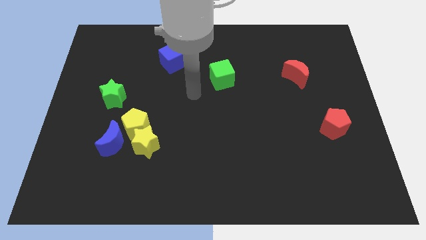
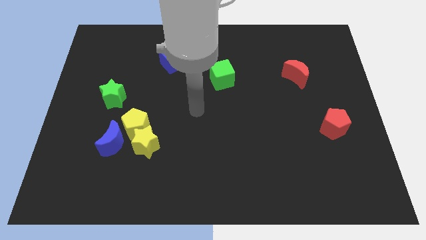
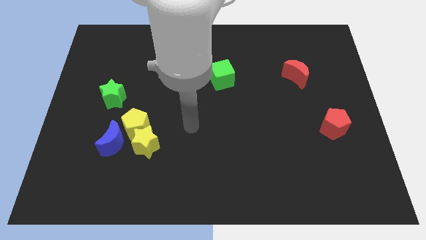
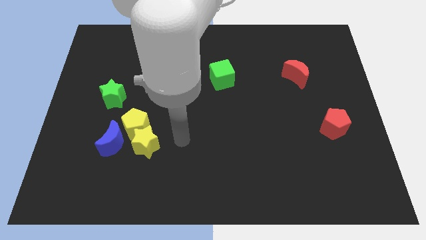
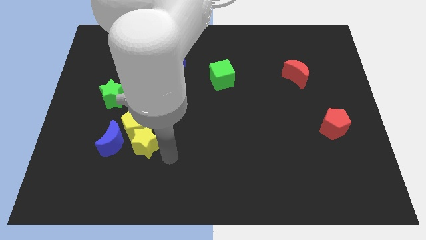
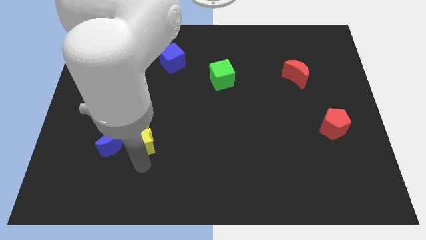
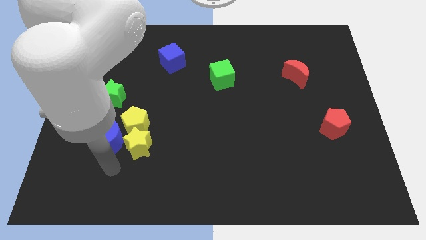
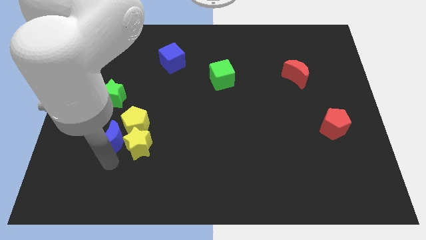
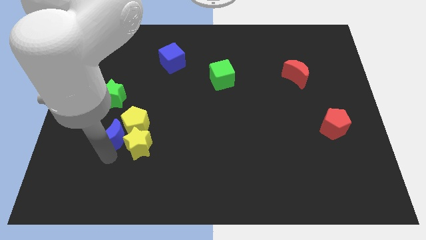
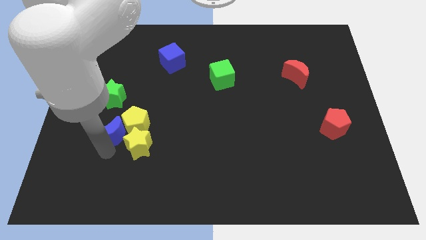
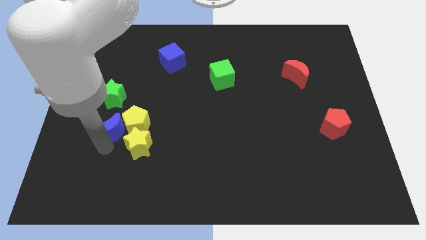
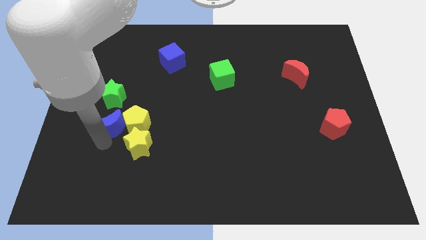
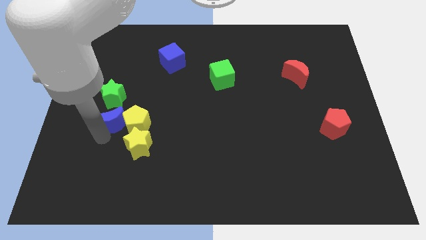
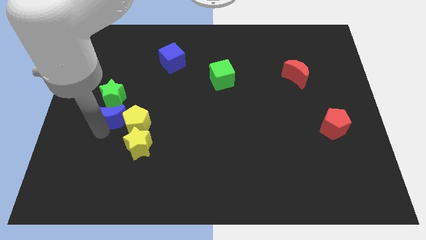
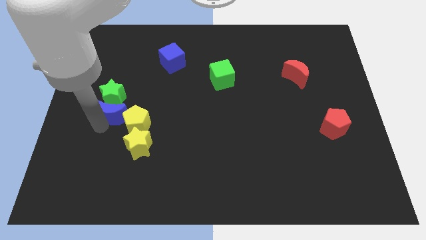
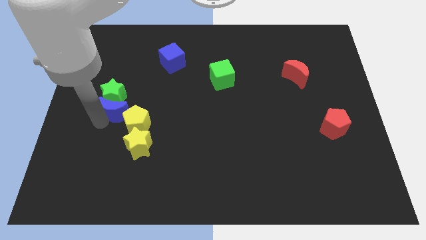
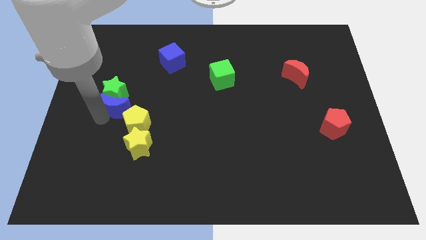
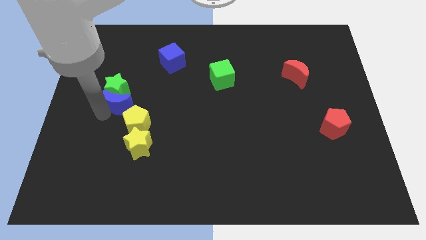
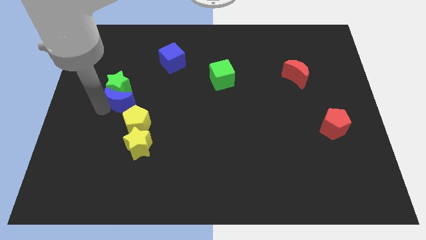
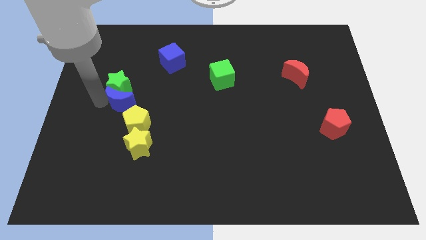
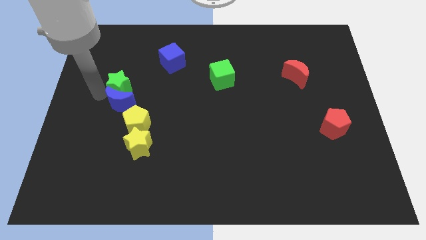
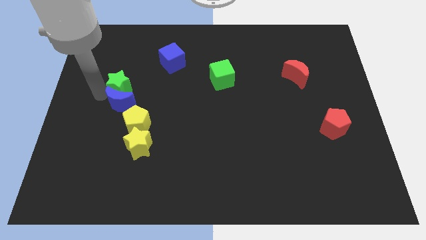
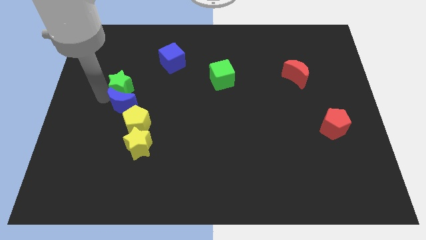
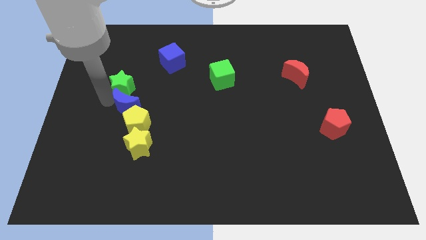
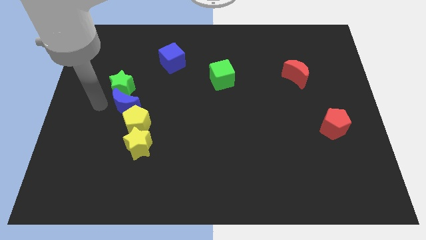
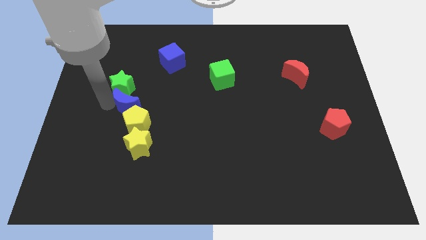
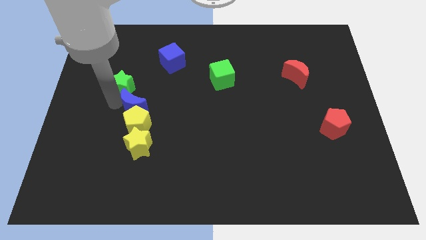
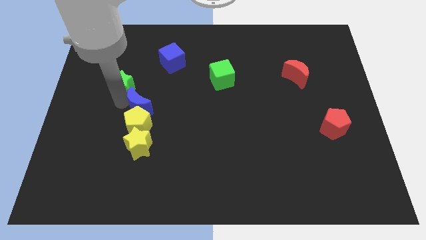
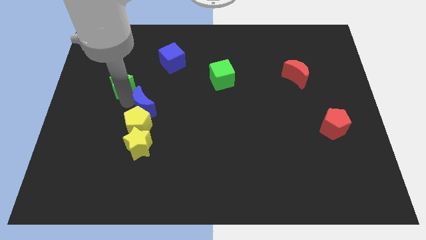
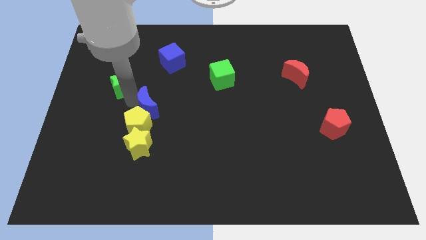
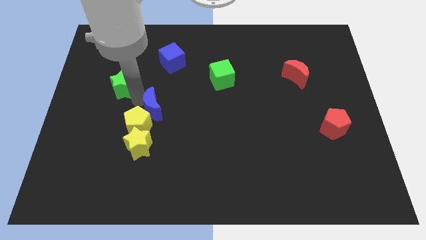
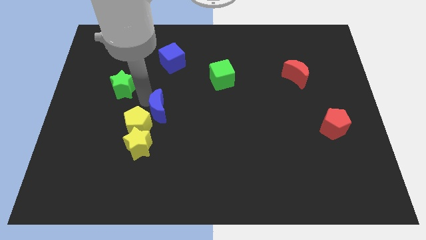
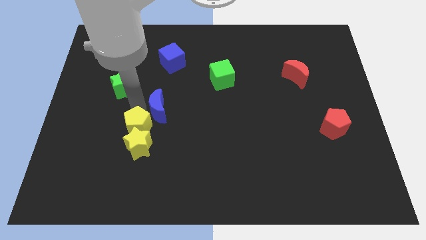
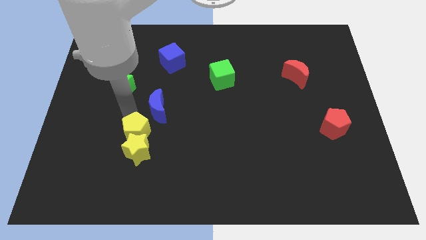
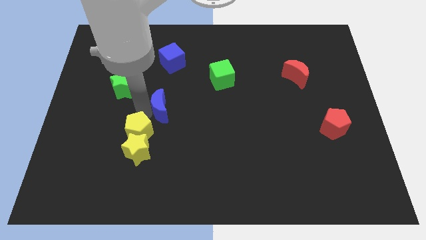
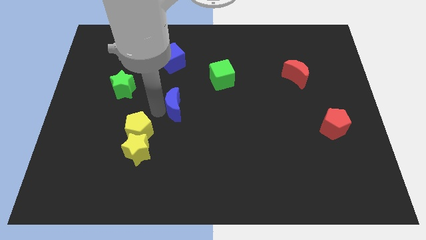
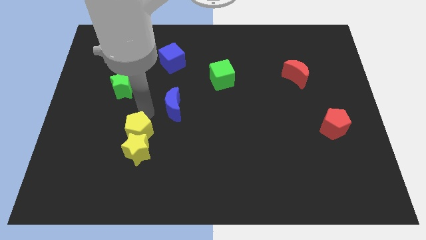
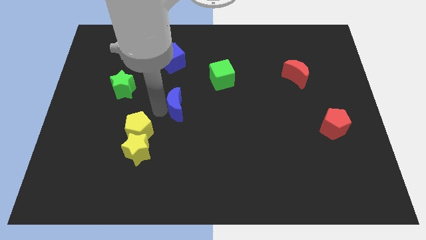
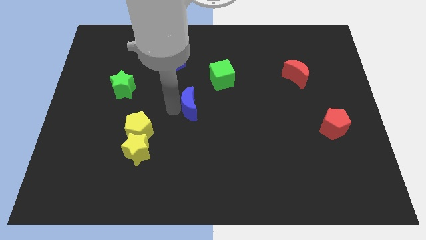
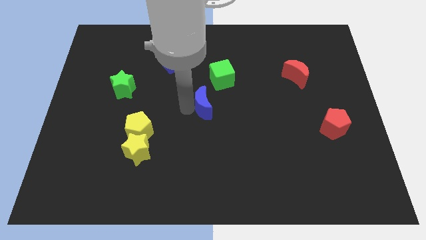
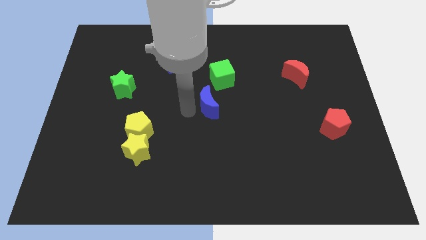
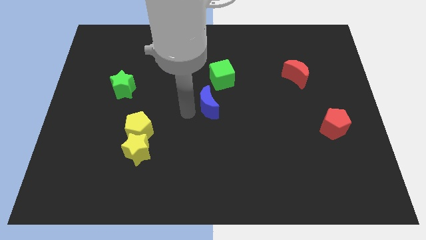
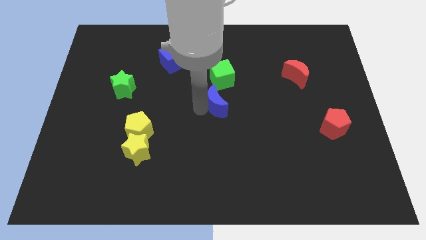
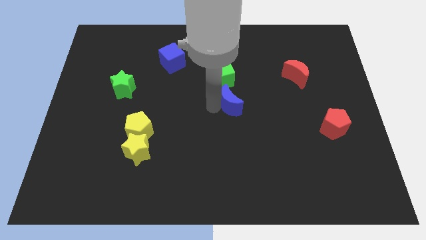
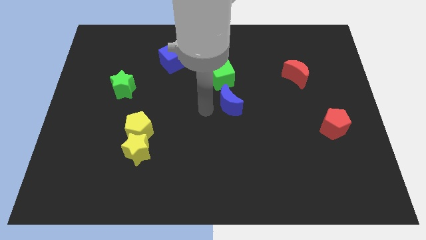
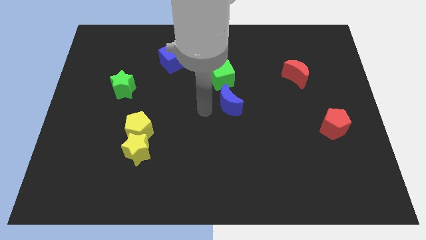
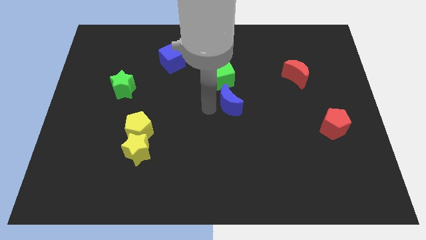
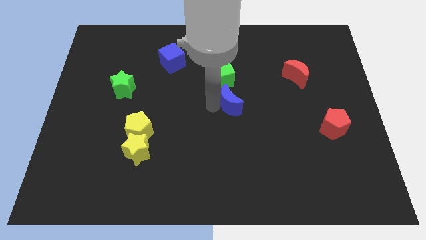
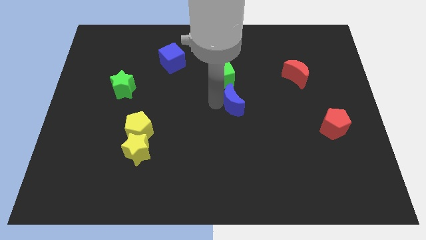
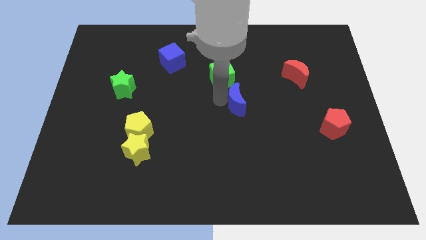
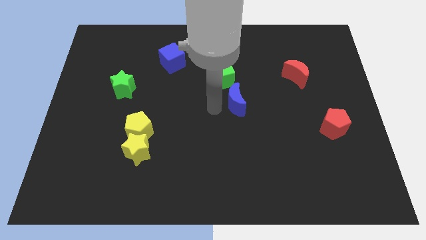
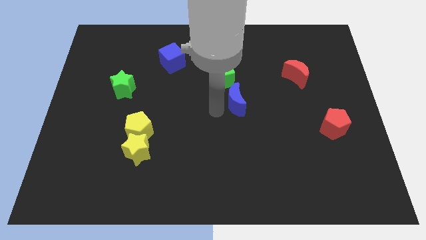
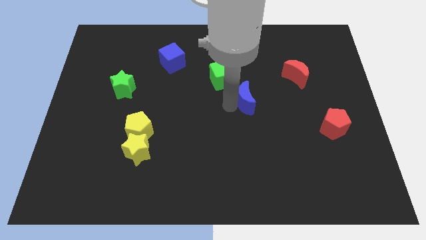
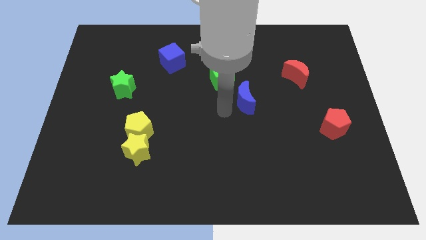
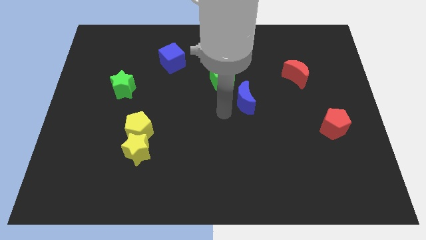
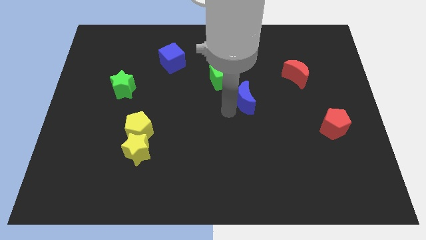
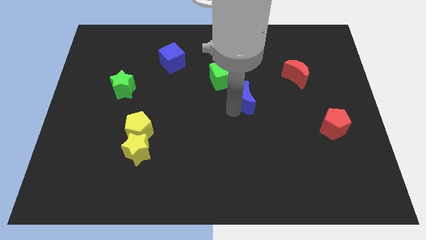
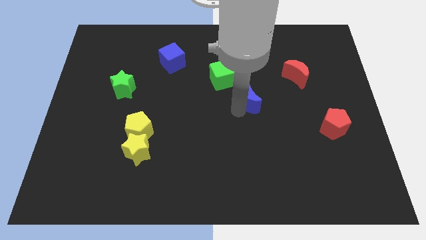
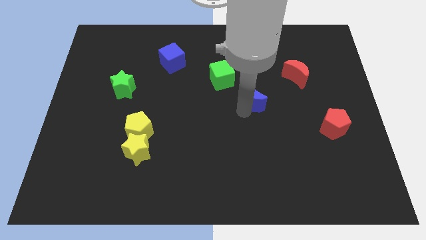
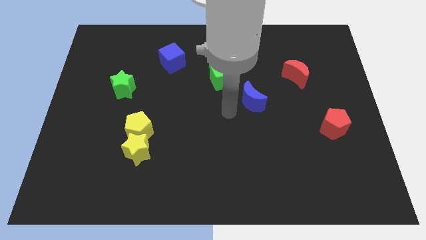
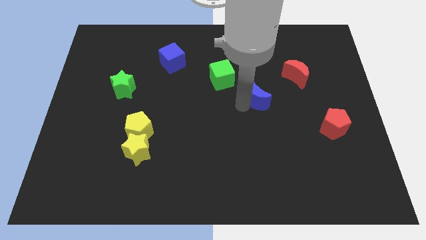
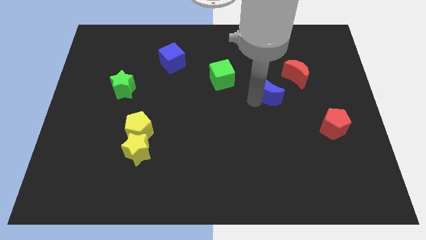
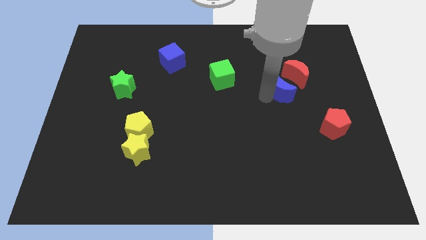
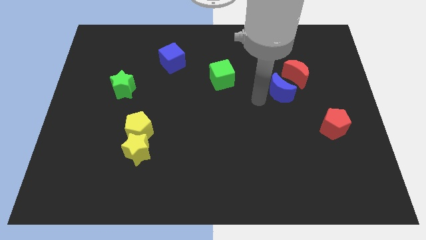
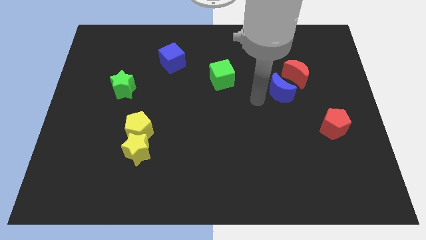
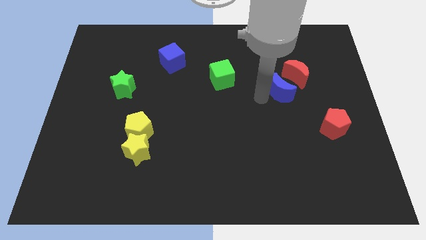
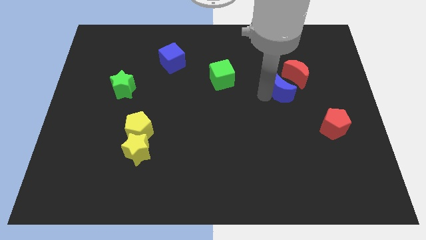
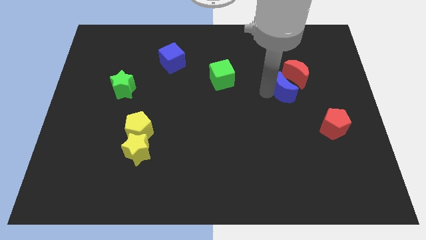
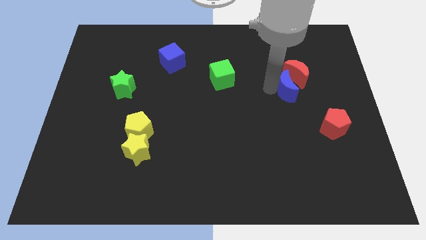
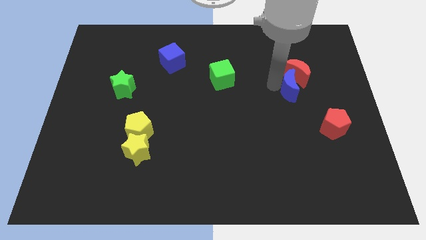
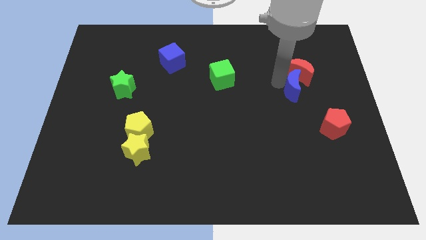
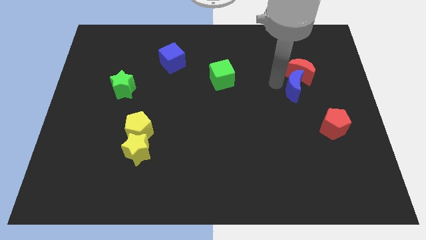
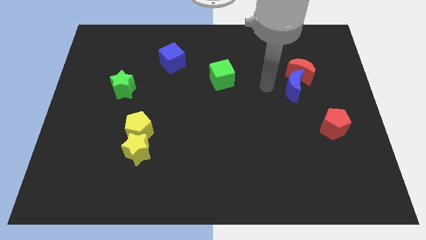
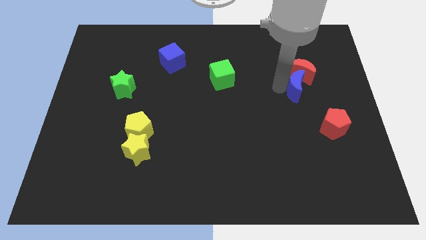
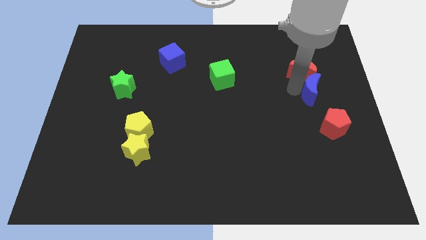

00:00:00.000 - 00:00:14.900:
move the blue moon to the top of the red pentagon
